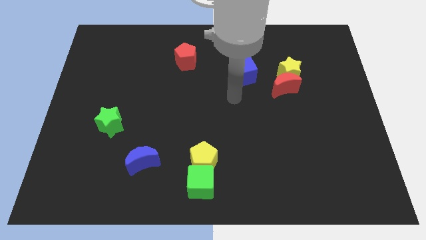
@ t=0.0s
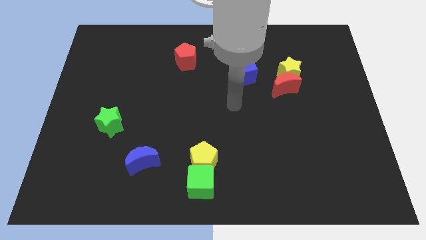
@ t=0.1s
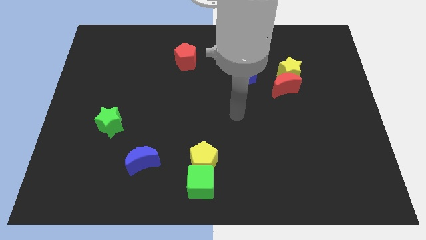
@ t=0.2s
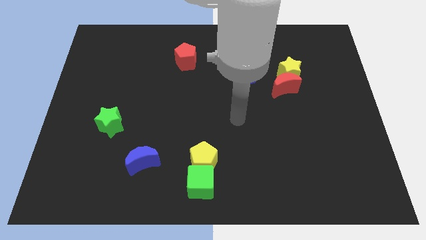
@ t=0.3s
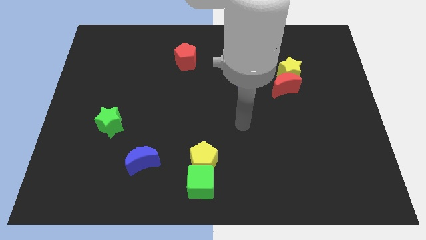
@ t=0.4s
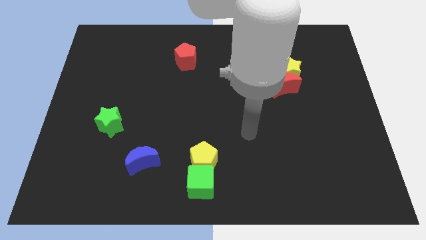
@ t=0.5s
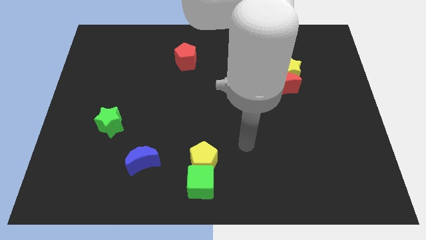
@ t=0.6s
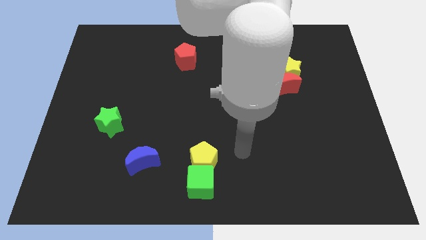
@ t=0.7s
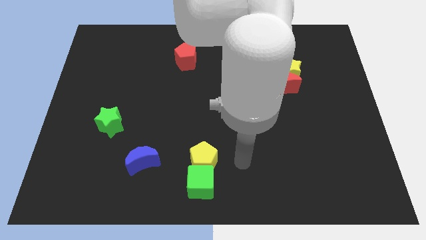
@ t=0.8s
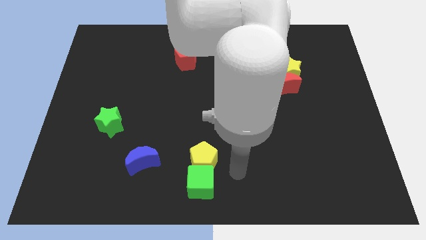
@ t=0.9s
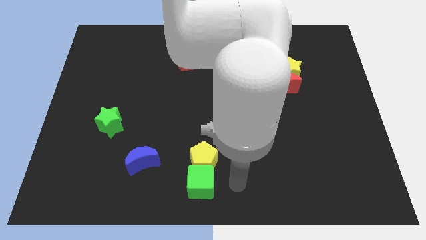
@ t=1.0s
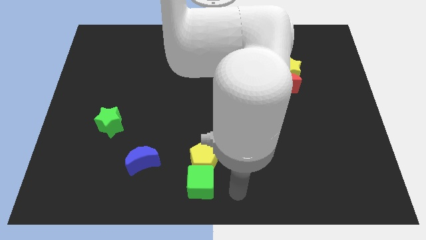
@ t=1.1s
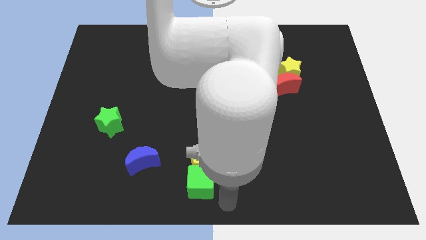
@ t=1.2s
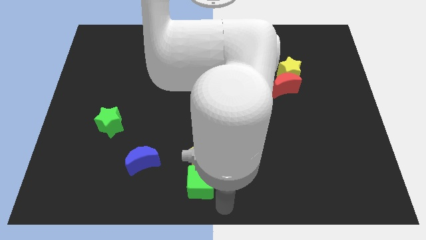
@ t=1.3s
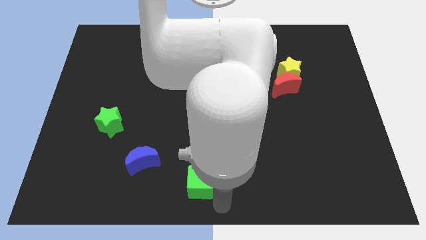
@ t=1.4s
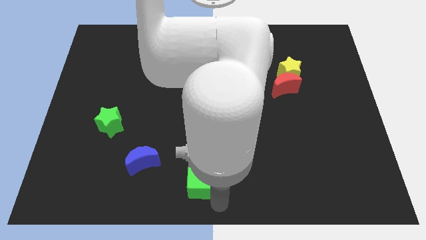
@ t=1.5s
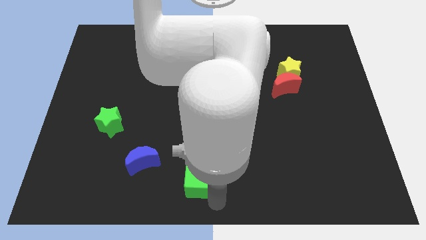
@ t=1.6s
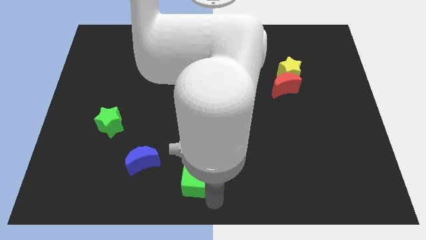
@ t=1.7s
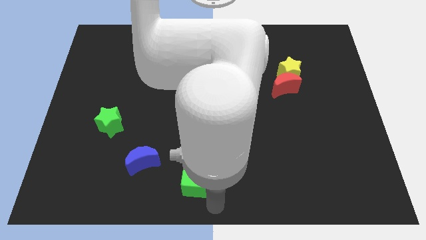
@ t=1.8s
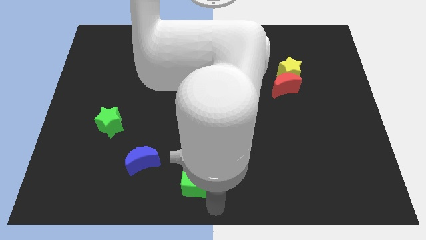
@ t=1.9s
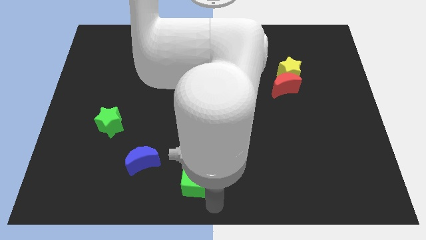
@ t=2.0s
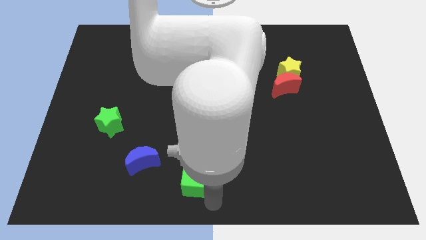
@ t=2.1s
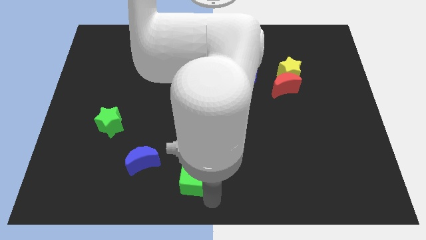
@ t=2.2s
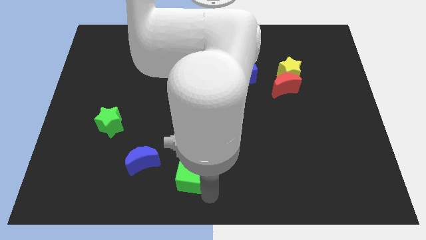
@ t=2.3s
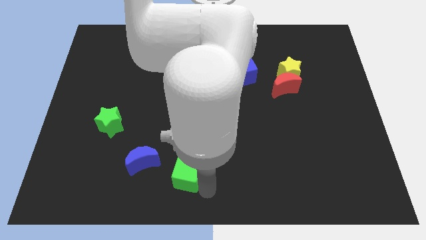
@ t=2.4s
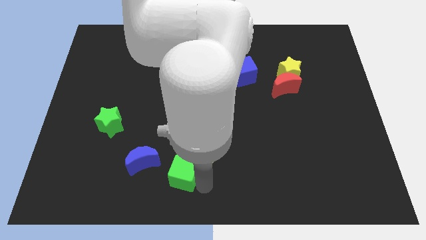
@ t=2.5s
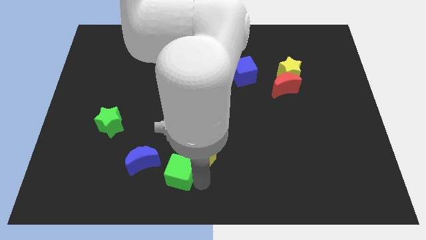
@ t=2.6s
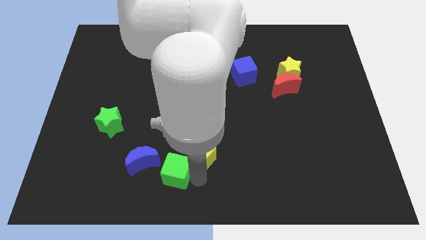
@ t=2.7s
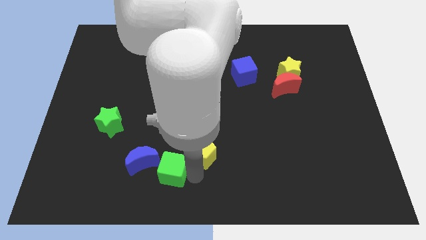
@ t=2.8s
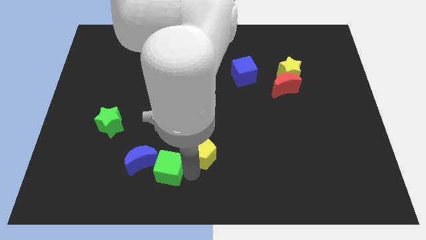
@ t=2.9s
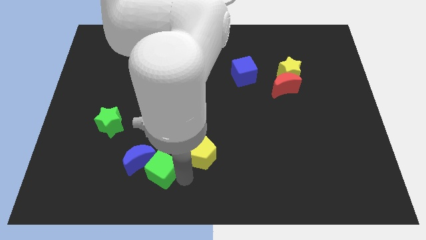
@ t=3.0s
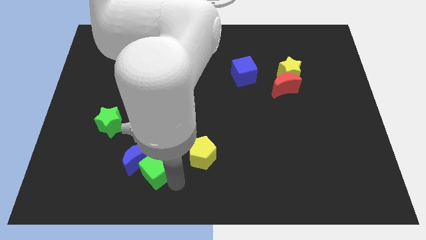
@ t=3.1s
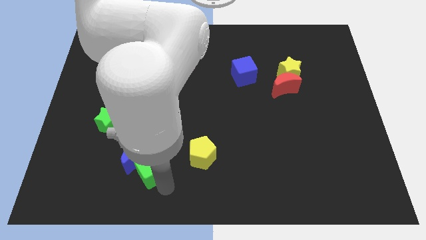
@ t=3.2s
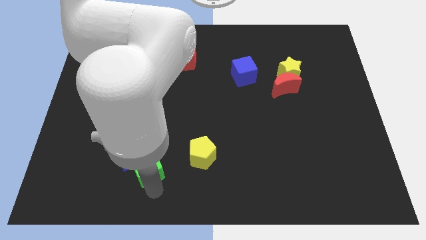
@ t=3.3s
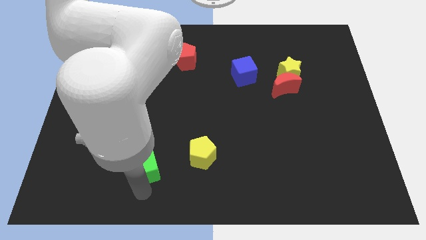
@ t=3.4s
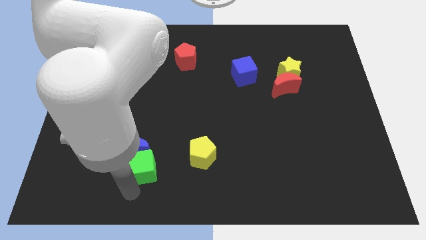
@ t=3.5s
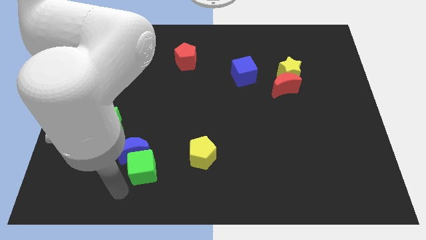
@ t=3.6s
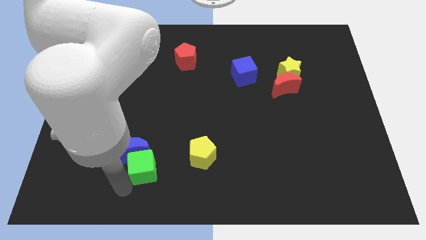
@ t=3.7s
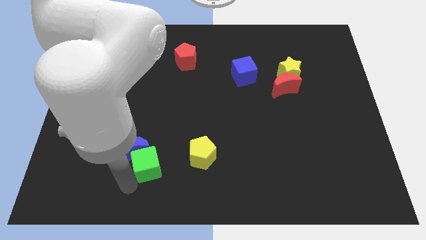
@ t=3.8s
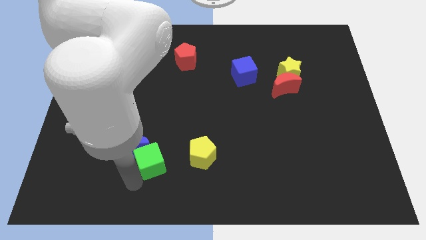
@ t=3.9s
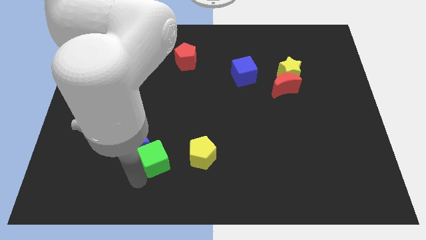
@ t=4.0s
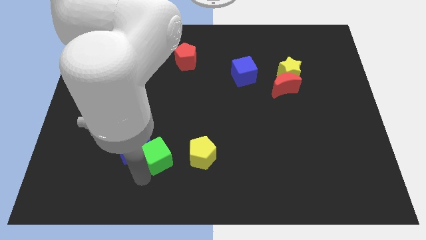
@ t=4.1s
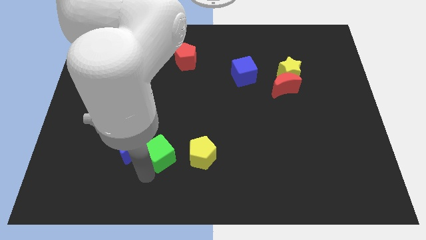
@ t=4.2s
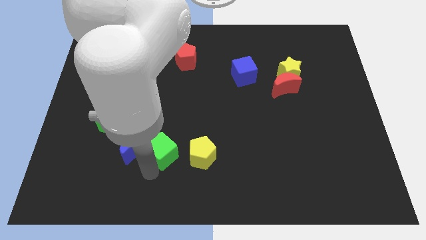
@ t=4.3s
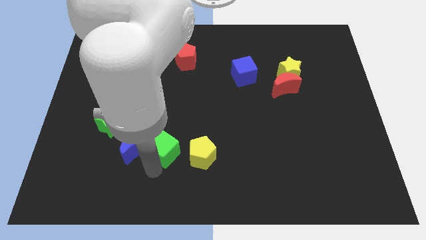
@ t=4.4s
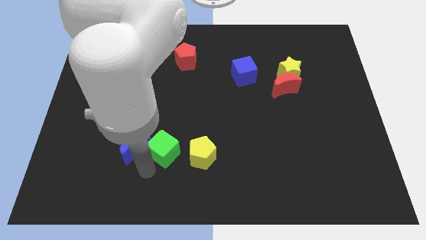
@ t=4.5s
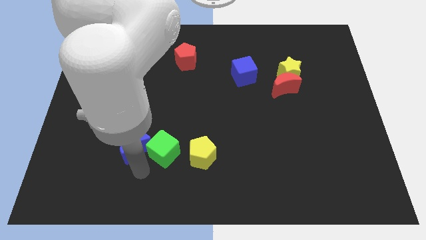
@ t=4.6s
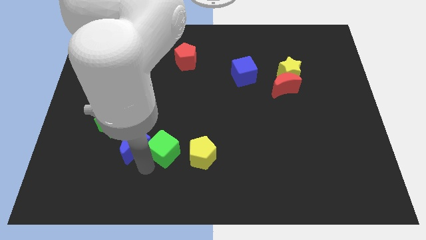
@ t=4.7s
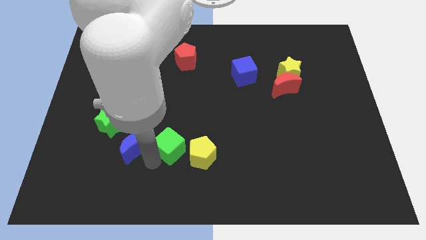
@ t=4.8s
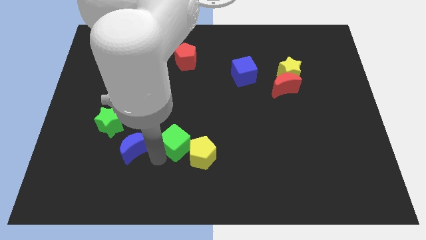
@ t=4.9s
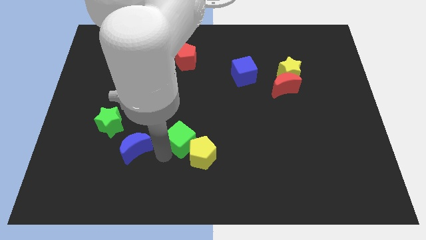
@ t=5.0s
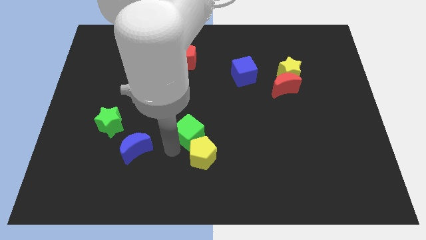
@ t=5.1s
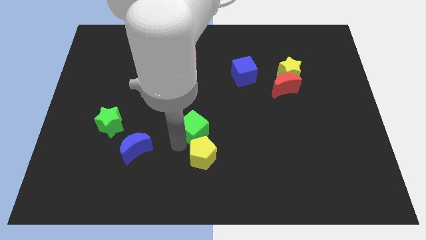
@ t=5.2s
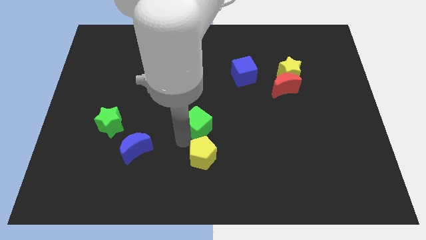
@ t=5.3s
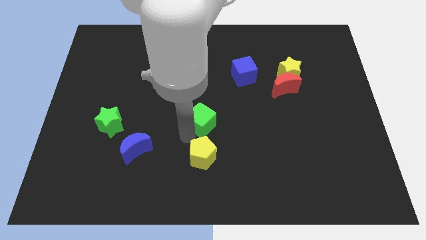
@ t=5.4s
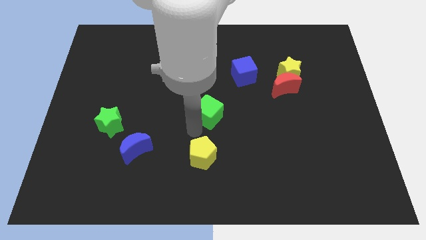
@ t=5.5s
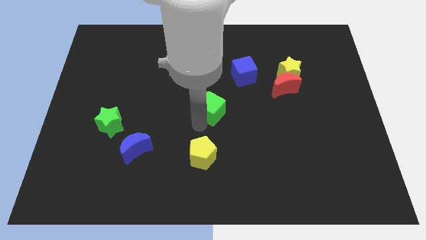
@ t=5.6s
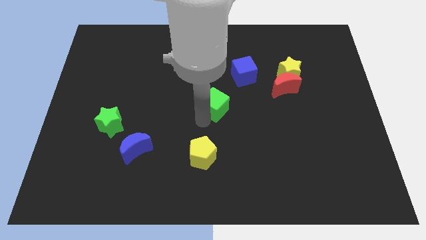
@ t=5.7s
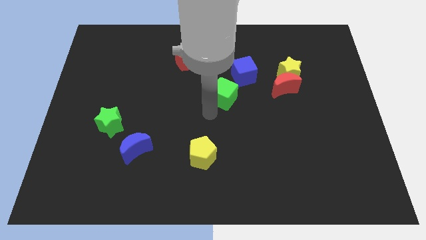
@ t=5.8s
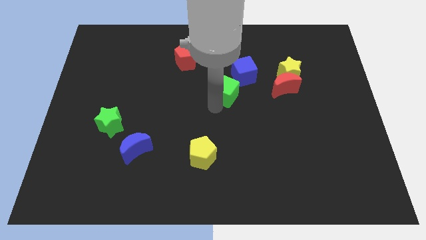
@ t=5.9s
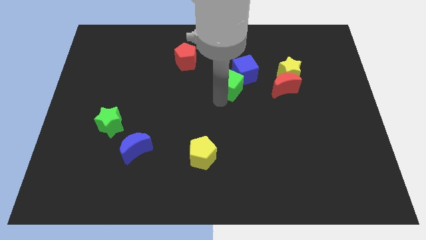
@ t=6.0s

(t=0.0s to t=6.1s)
slide the green cube towards the blue cube

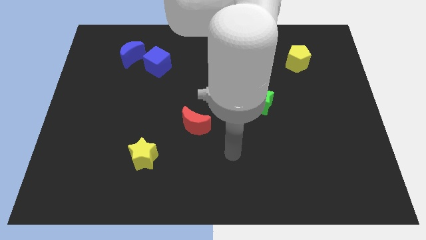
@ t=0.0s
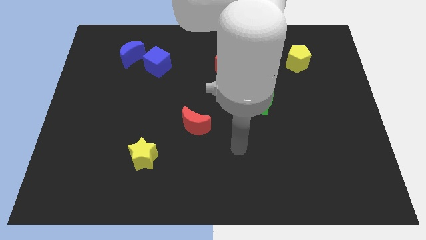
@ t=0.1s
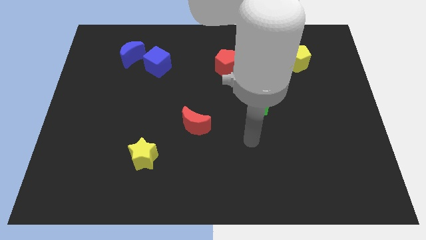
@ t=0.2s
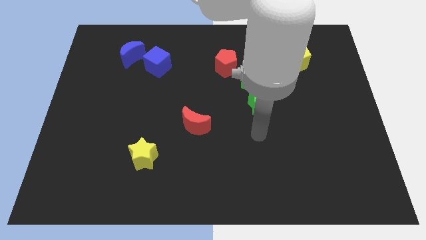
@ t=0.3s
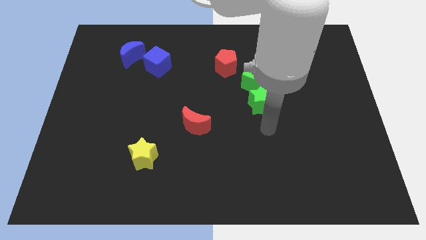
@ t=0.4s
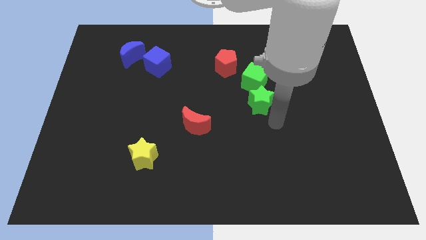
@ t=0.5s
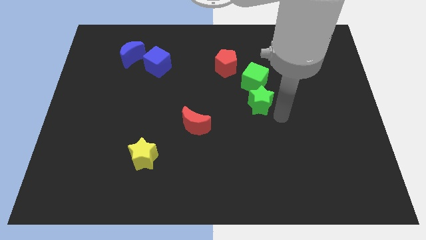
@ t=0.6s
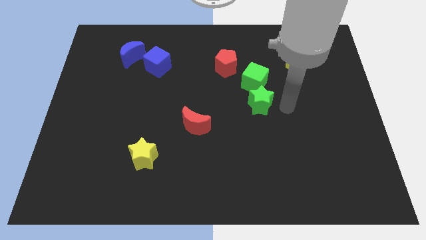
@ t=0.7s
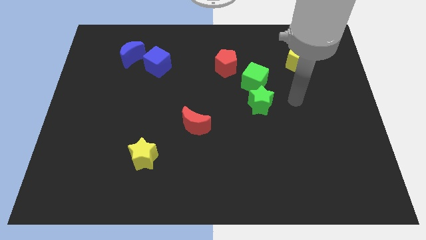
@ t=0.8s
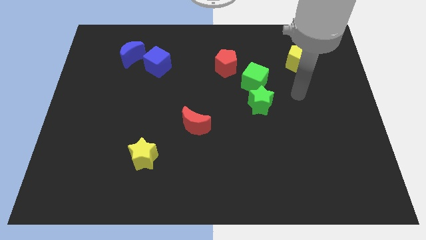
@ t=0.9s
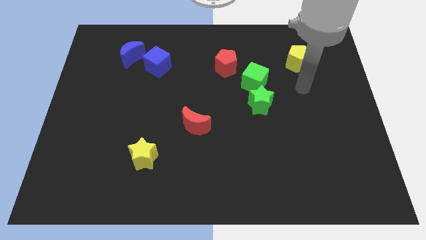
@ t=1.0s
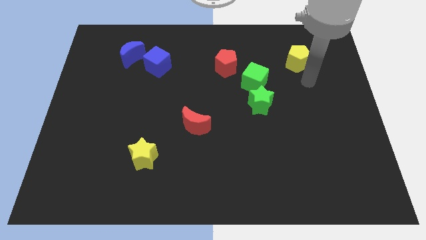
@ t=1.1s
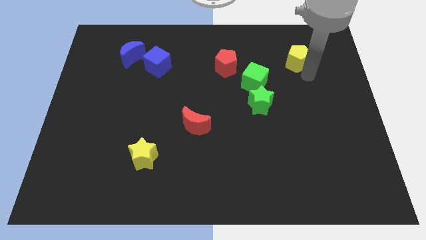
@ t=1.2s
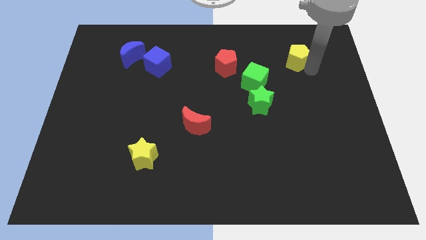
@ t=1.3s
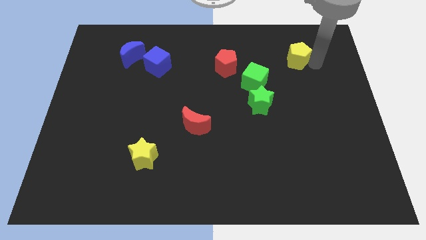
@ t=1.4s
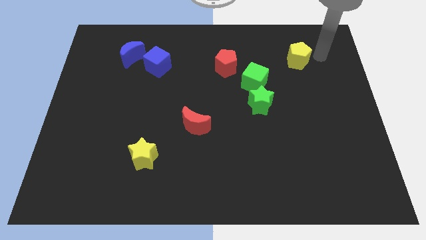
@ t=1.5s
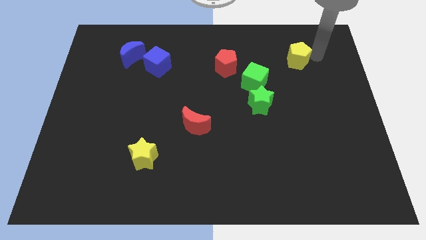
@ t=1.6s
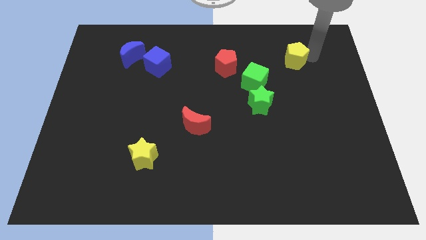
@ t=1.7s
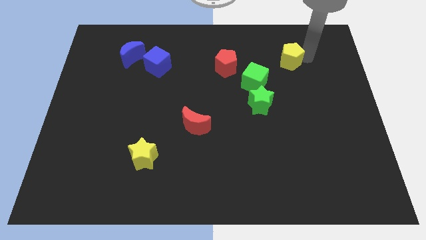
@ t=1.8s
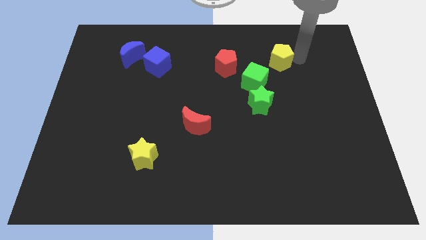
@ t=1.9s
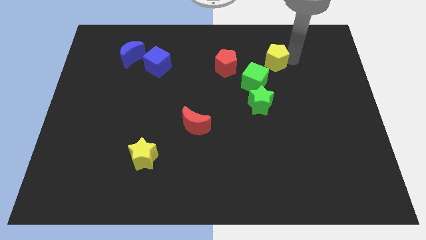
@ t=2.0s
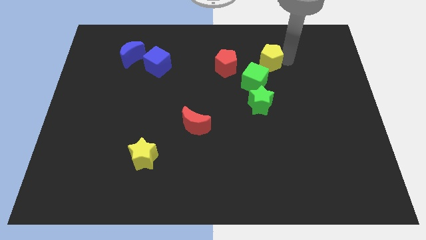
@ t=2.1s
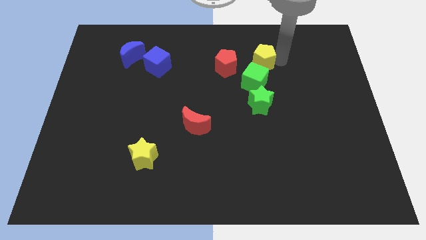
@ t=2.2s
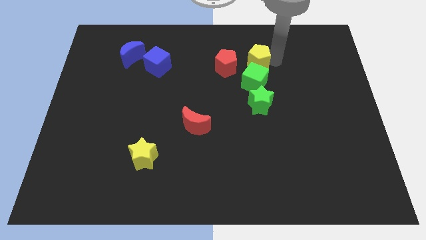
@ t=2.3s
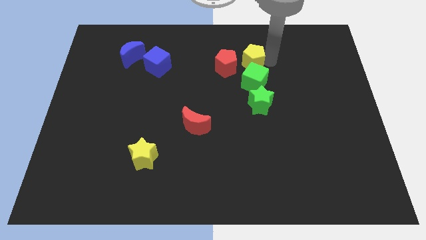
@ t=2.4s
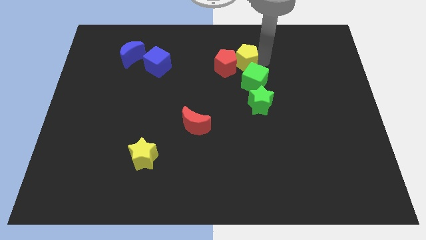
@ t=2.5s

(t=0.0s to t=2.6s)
move the yellow pentagon towards the red pentagon
